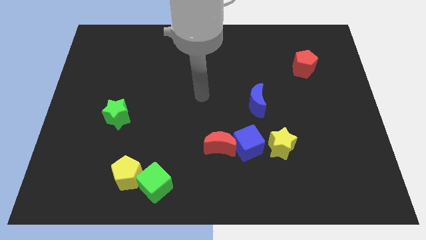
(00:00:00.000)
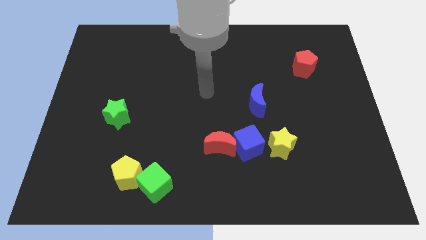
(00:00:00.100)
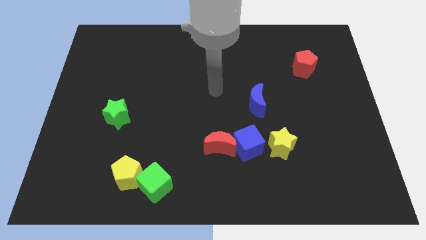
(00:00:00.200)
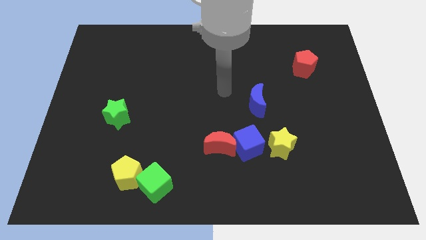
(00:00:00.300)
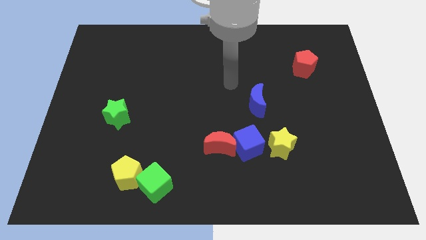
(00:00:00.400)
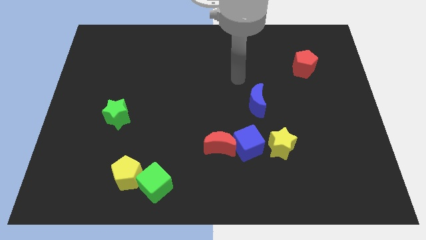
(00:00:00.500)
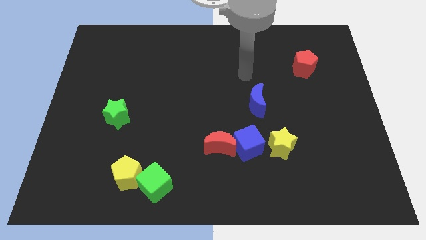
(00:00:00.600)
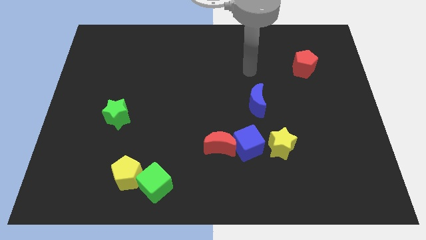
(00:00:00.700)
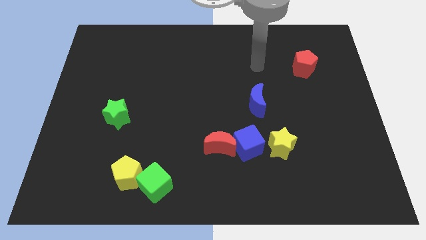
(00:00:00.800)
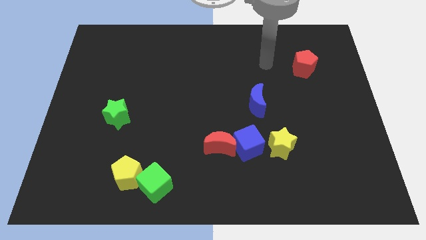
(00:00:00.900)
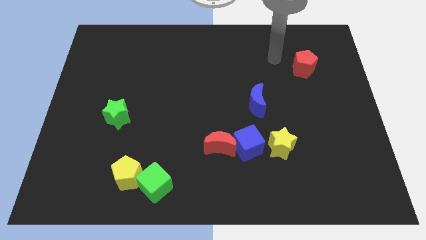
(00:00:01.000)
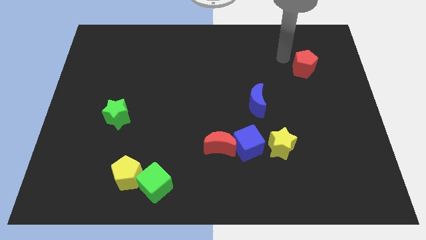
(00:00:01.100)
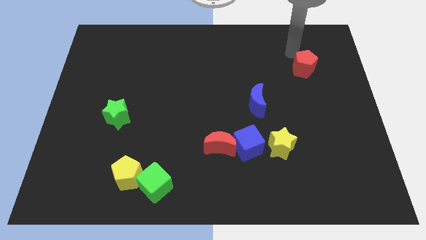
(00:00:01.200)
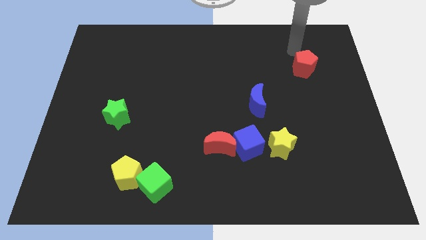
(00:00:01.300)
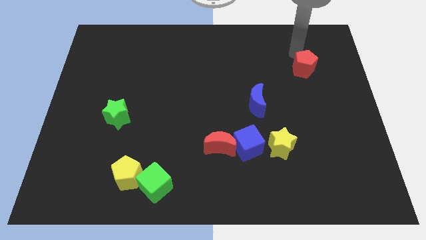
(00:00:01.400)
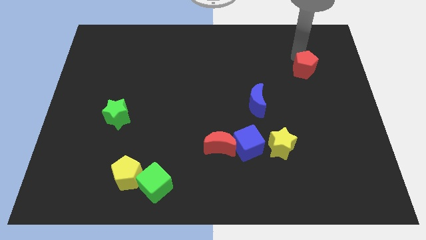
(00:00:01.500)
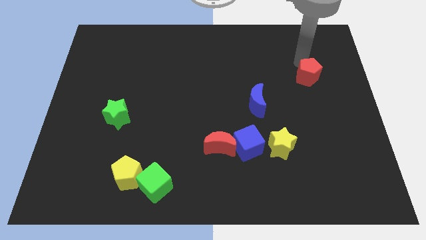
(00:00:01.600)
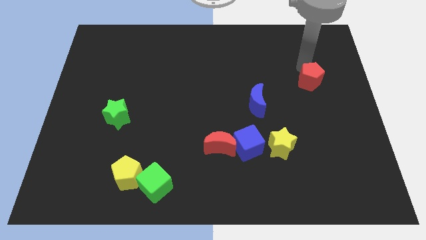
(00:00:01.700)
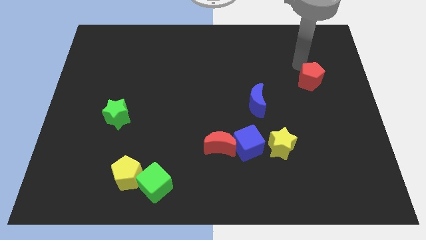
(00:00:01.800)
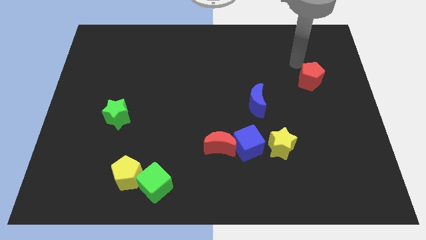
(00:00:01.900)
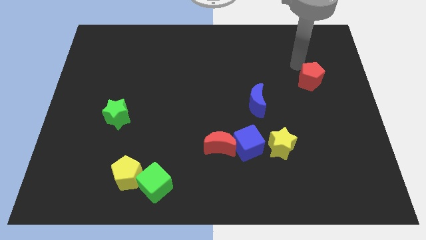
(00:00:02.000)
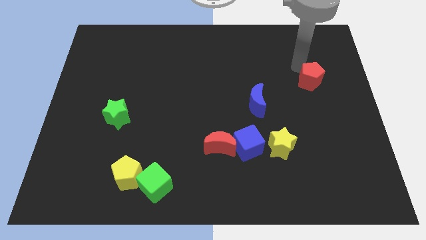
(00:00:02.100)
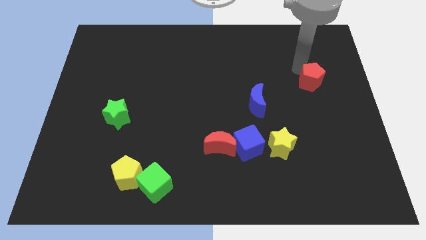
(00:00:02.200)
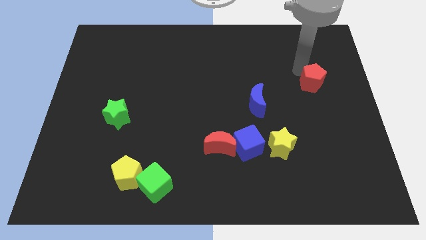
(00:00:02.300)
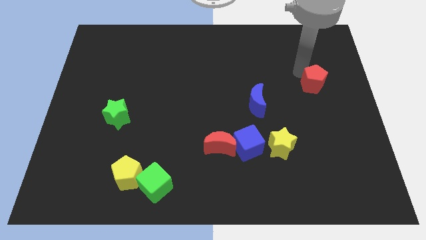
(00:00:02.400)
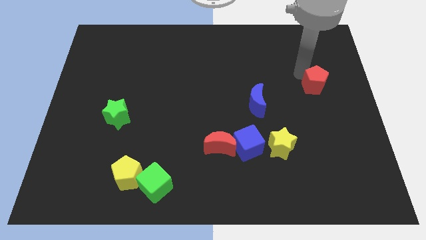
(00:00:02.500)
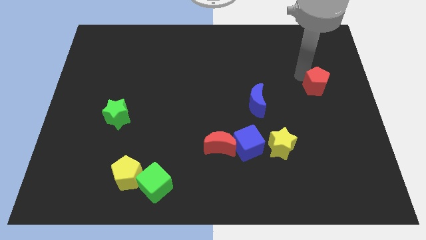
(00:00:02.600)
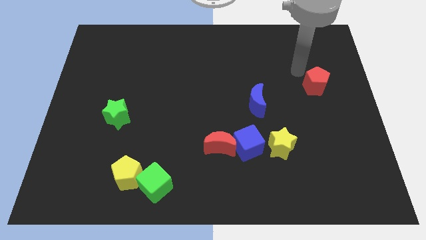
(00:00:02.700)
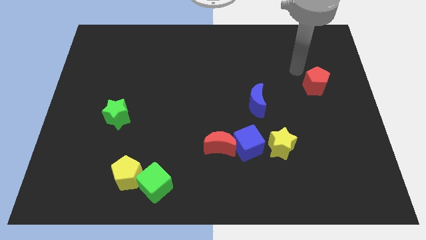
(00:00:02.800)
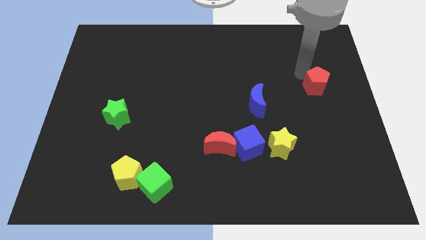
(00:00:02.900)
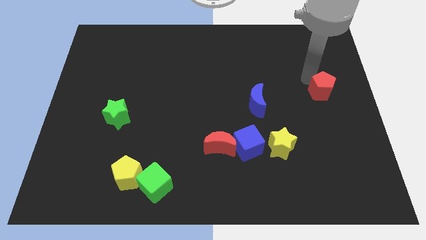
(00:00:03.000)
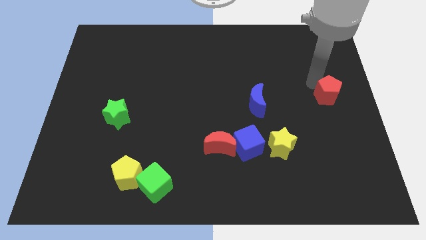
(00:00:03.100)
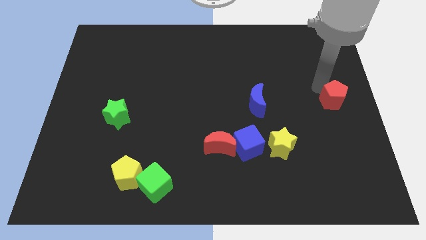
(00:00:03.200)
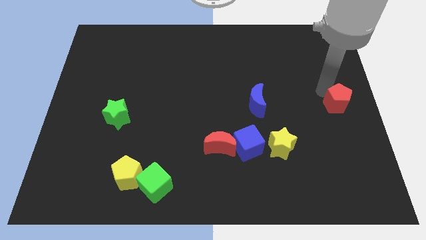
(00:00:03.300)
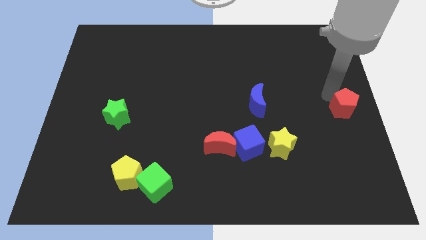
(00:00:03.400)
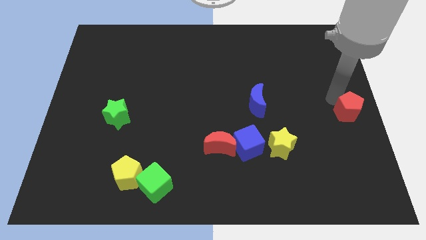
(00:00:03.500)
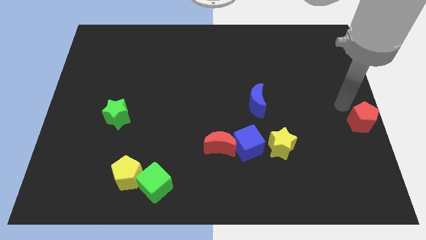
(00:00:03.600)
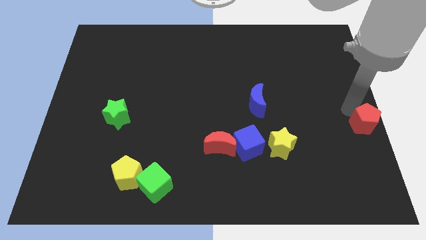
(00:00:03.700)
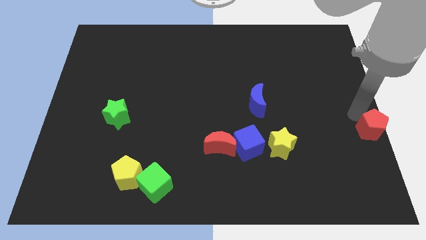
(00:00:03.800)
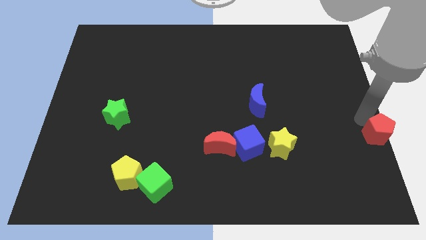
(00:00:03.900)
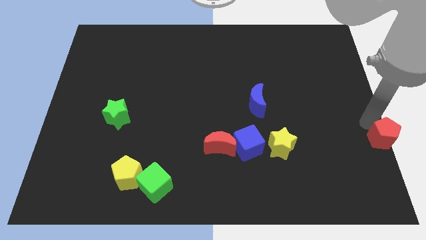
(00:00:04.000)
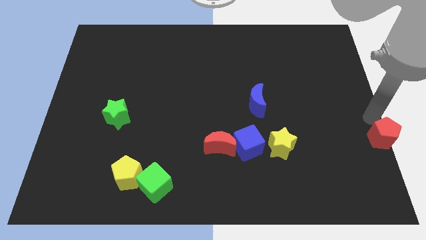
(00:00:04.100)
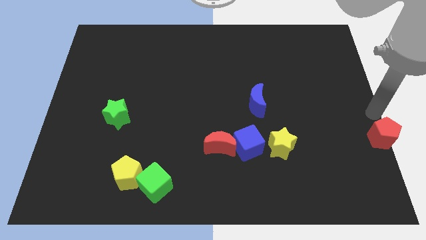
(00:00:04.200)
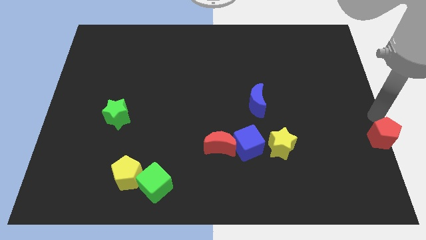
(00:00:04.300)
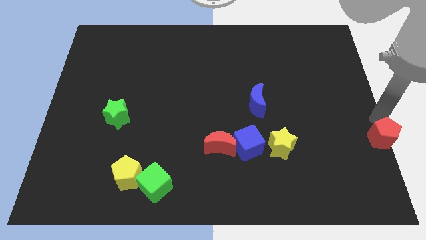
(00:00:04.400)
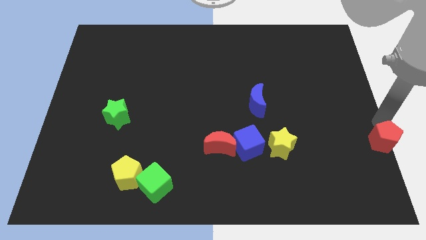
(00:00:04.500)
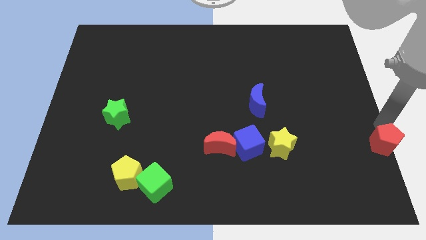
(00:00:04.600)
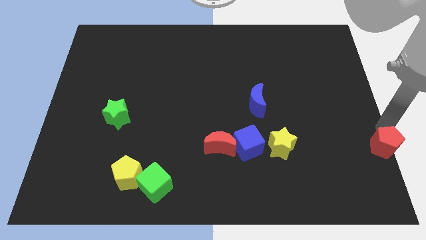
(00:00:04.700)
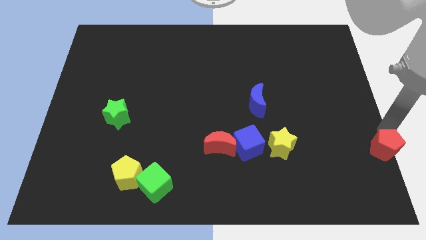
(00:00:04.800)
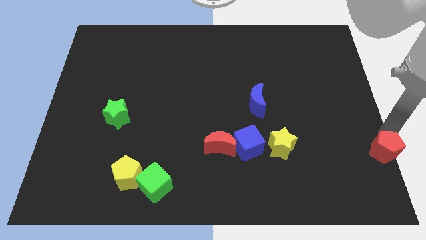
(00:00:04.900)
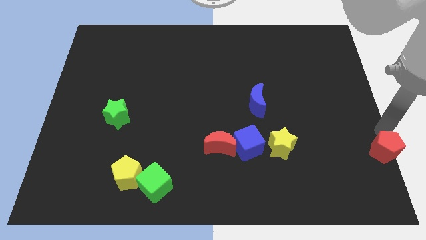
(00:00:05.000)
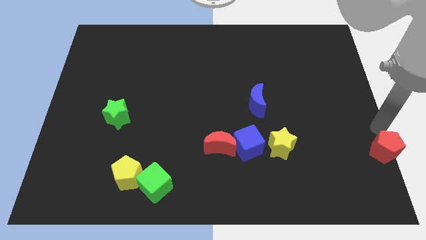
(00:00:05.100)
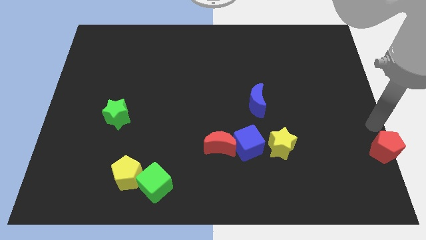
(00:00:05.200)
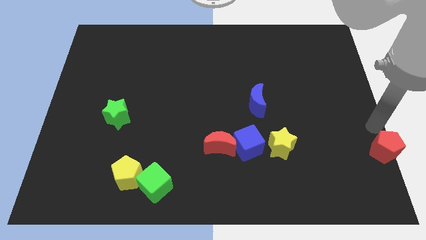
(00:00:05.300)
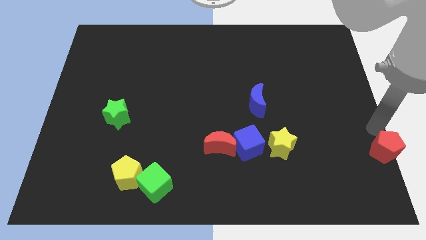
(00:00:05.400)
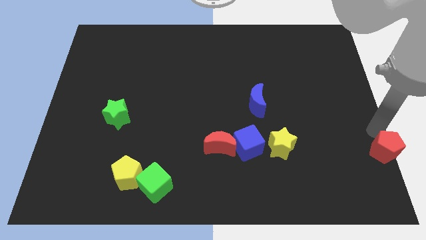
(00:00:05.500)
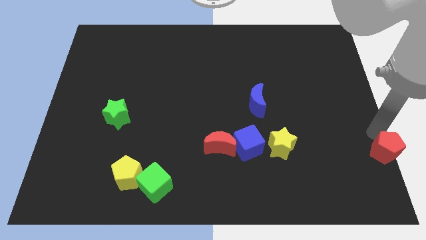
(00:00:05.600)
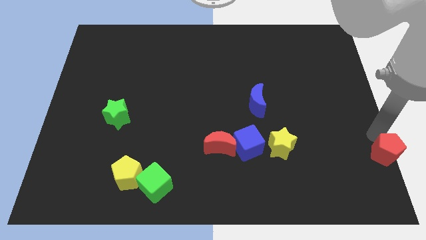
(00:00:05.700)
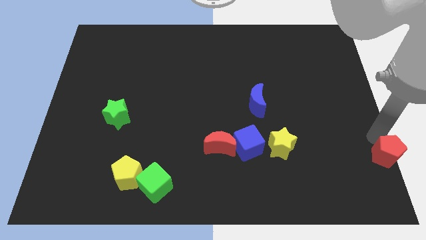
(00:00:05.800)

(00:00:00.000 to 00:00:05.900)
put the red pentagon to the bottom right

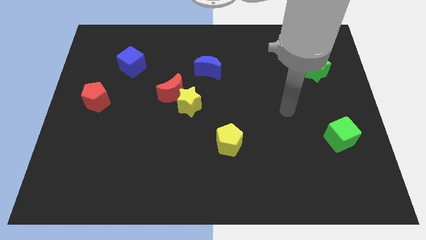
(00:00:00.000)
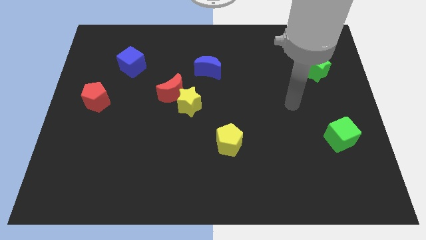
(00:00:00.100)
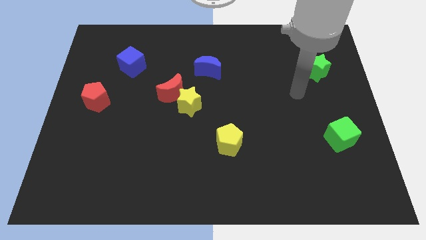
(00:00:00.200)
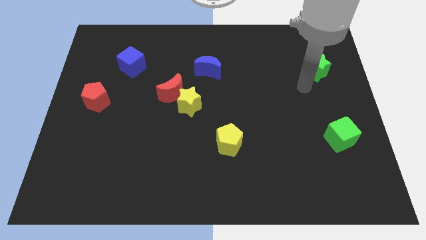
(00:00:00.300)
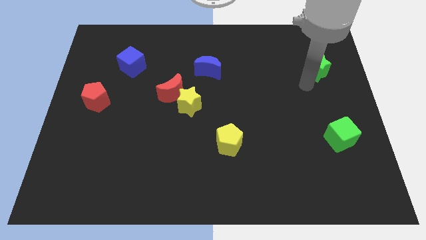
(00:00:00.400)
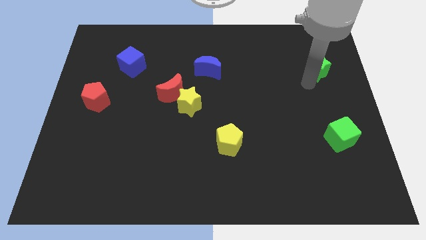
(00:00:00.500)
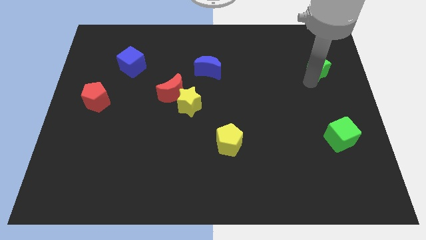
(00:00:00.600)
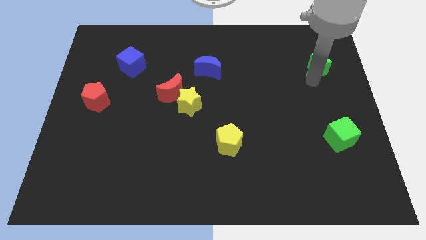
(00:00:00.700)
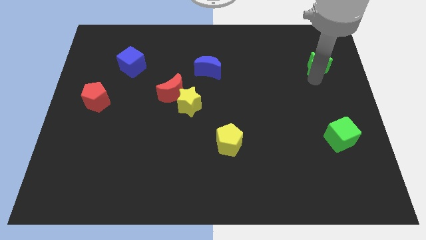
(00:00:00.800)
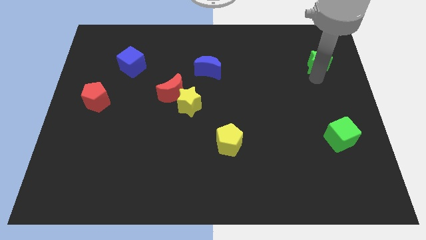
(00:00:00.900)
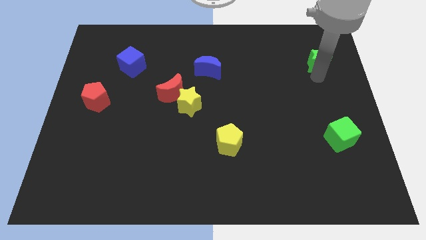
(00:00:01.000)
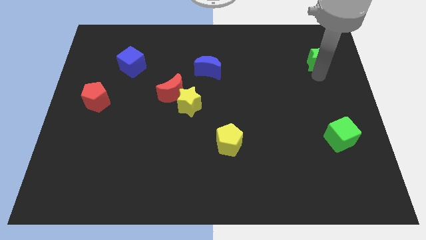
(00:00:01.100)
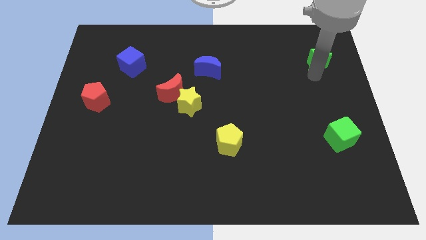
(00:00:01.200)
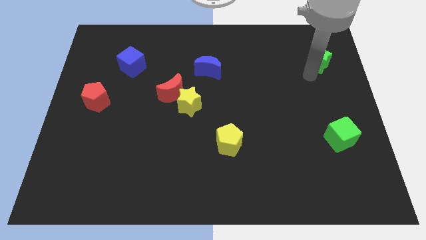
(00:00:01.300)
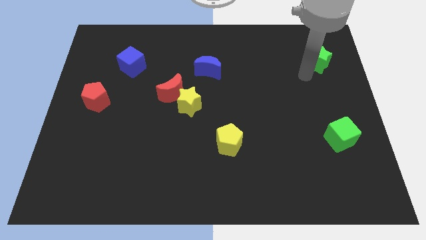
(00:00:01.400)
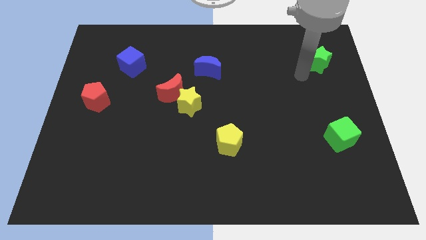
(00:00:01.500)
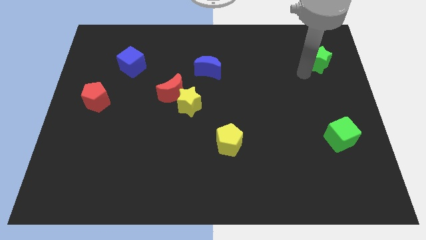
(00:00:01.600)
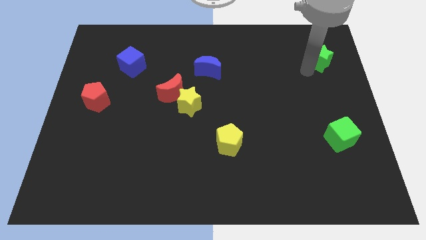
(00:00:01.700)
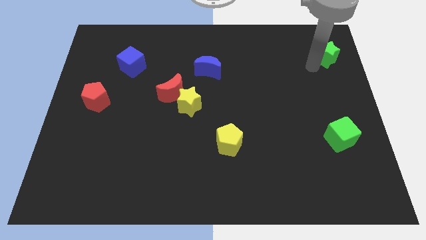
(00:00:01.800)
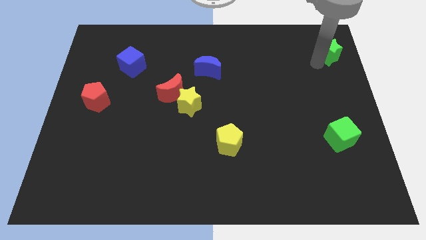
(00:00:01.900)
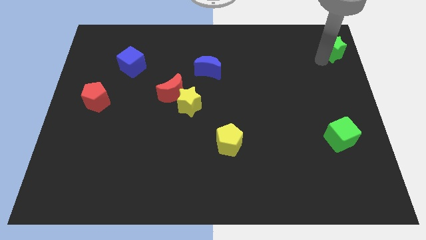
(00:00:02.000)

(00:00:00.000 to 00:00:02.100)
push the green star to the upper right corner
